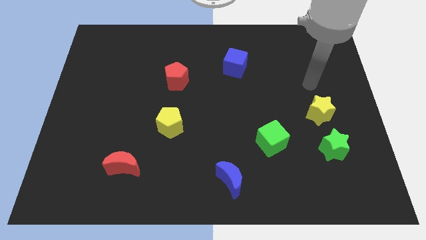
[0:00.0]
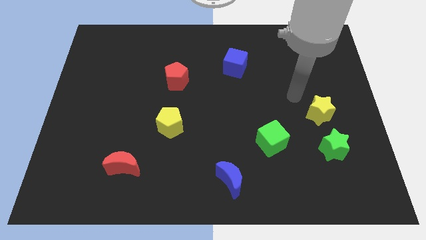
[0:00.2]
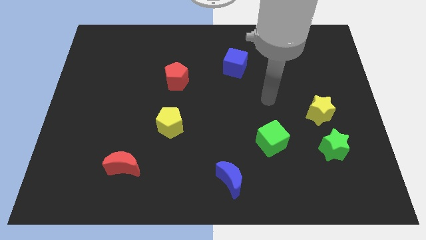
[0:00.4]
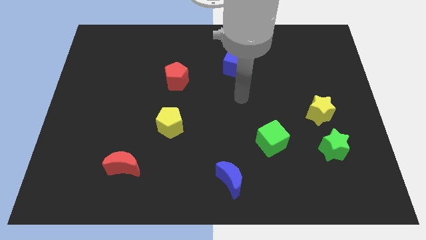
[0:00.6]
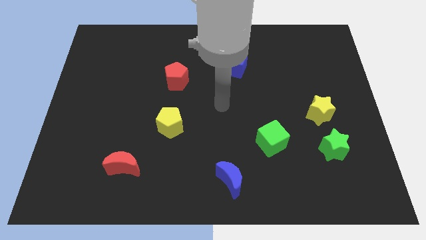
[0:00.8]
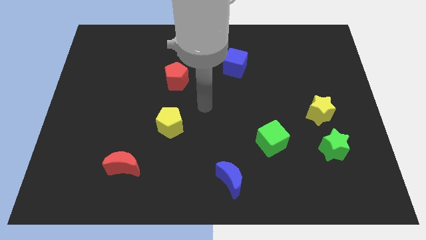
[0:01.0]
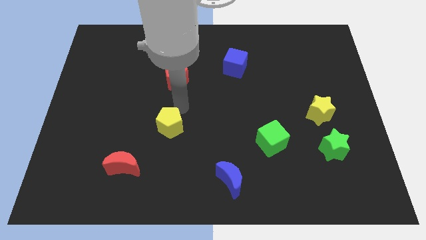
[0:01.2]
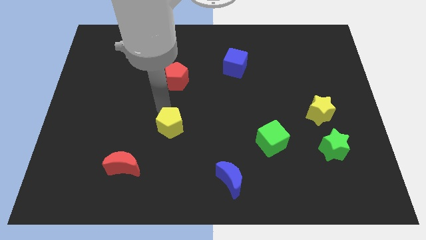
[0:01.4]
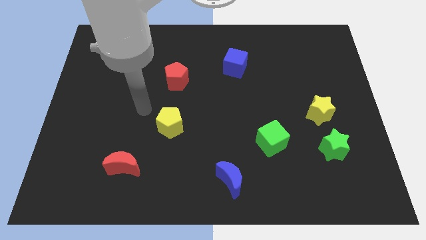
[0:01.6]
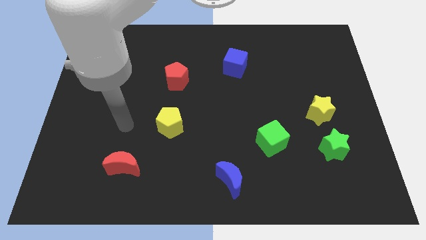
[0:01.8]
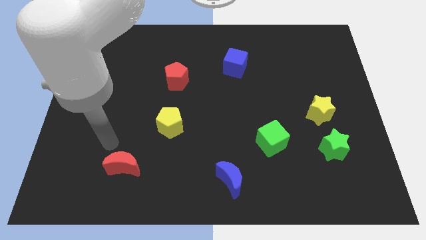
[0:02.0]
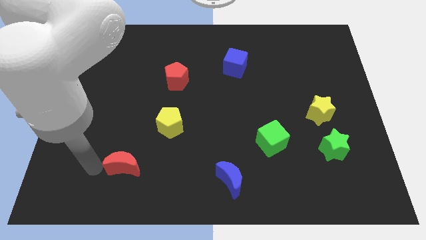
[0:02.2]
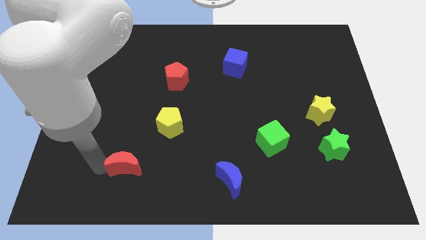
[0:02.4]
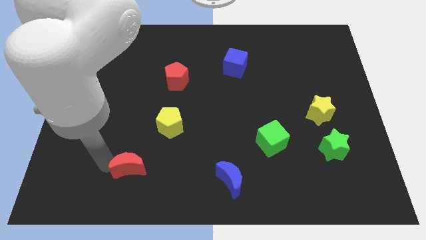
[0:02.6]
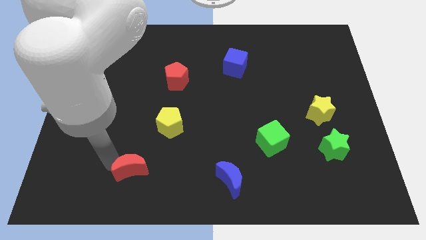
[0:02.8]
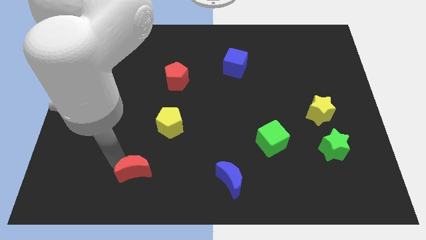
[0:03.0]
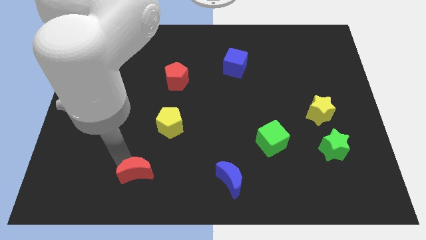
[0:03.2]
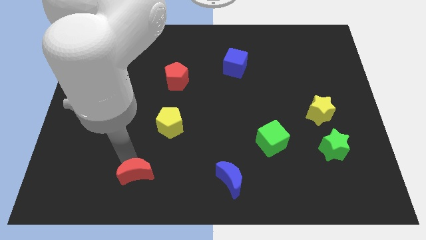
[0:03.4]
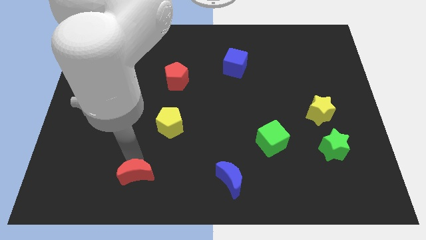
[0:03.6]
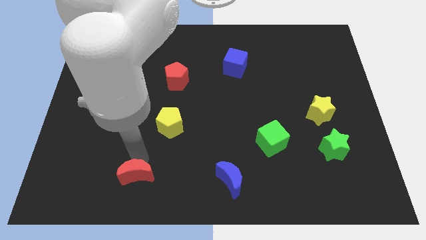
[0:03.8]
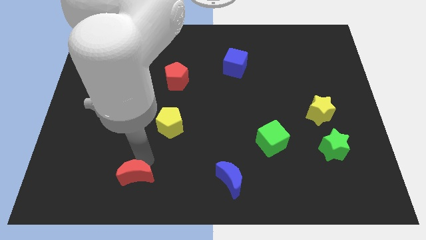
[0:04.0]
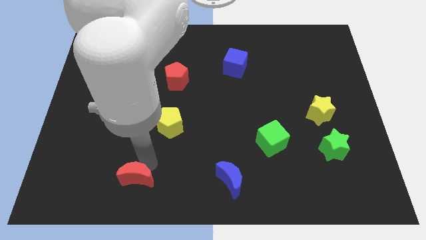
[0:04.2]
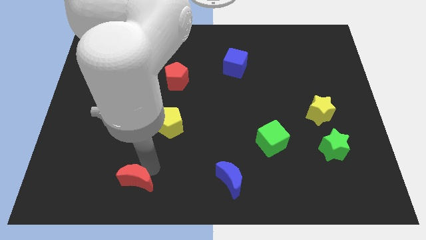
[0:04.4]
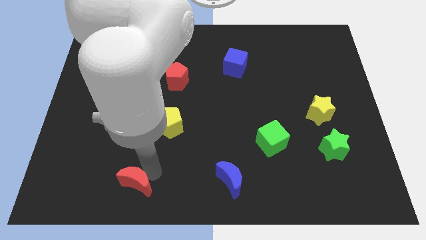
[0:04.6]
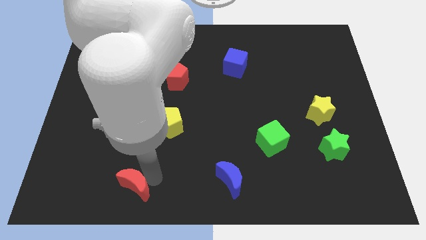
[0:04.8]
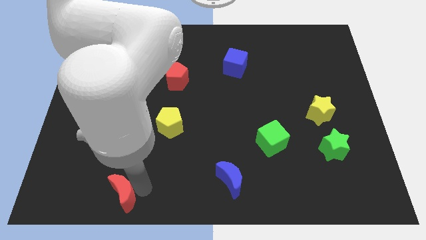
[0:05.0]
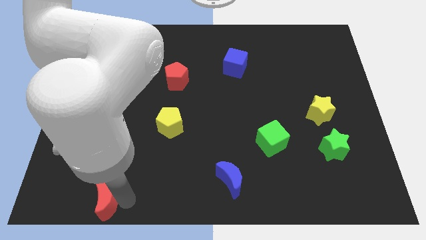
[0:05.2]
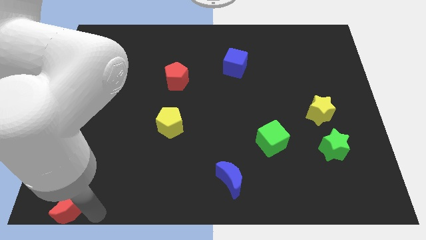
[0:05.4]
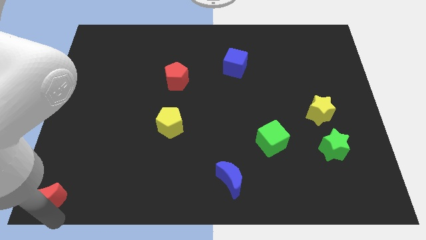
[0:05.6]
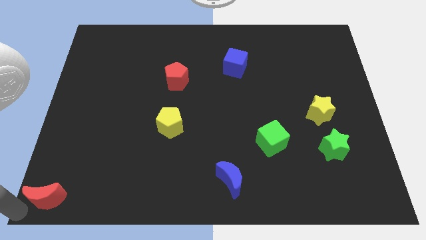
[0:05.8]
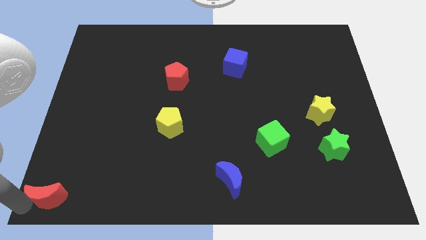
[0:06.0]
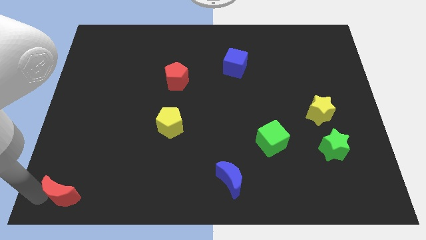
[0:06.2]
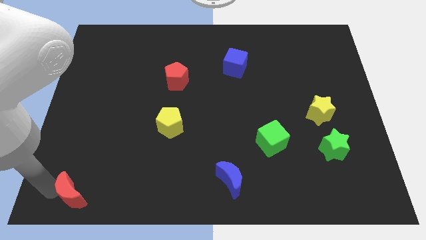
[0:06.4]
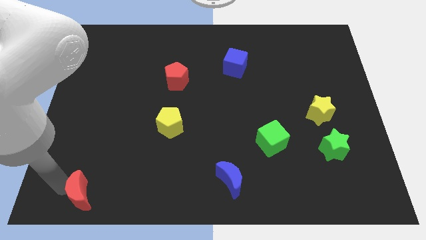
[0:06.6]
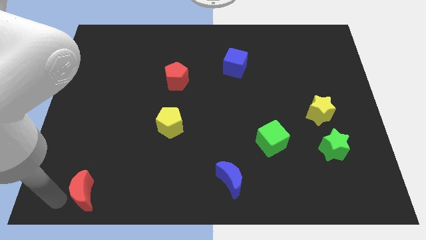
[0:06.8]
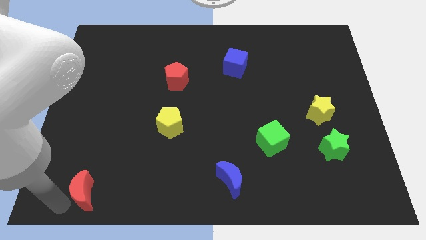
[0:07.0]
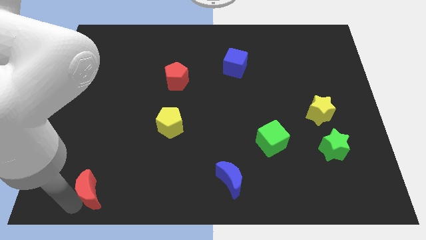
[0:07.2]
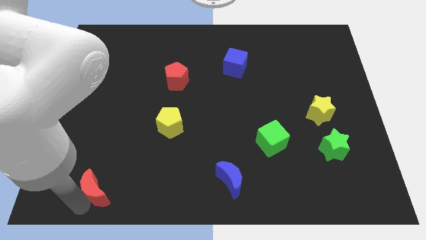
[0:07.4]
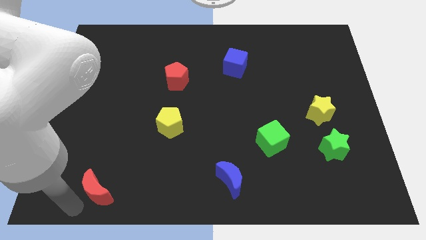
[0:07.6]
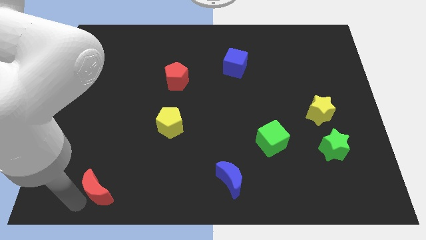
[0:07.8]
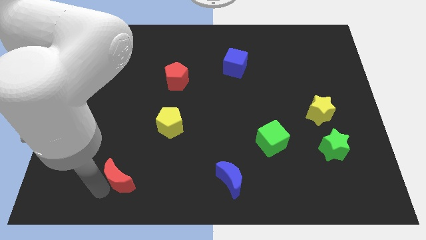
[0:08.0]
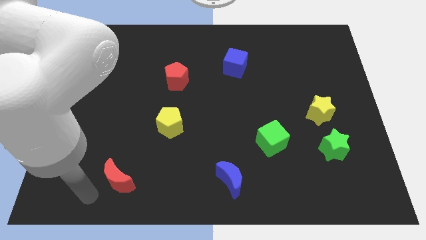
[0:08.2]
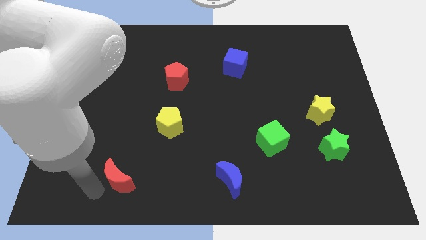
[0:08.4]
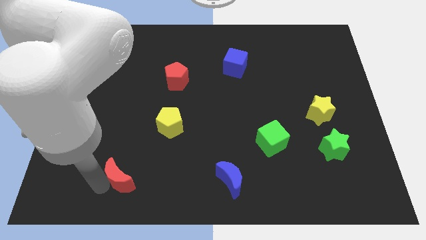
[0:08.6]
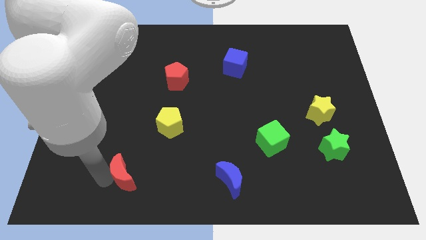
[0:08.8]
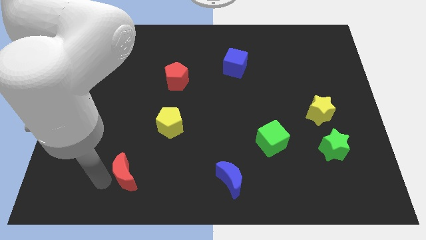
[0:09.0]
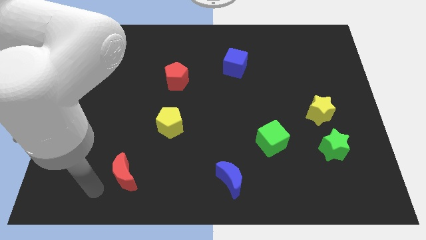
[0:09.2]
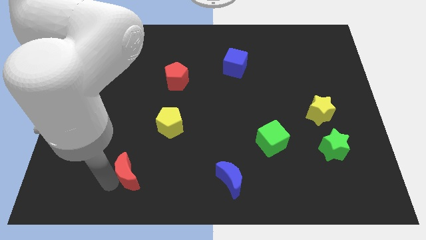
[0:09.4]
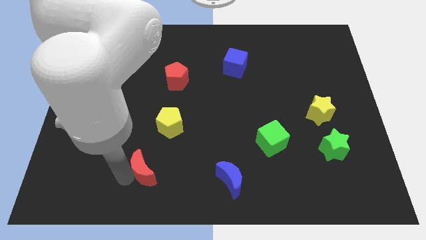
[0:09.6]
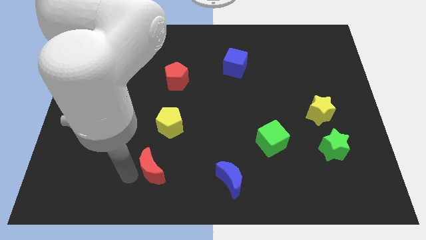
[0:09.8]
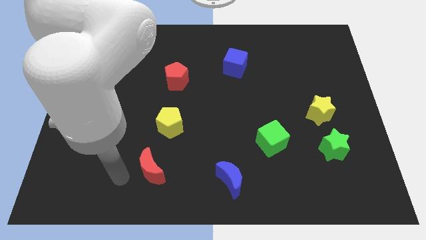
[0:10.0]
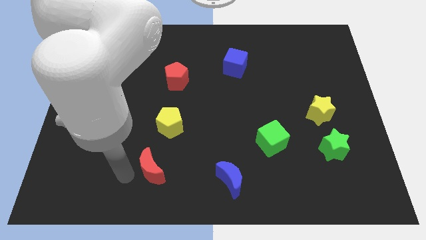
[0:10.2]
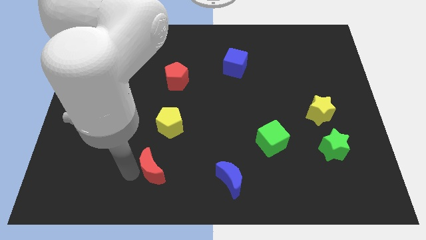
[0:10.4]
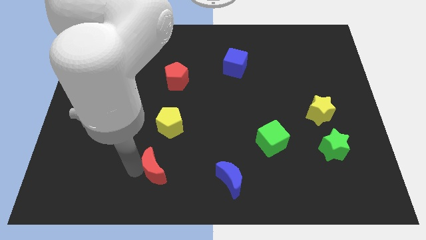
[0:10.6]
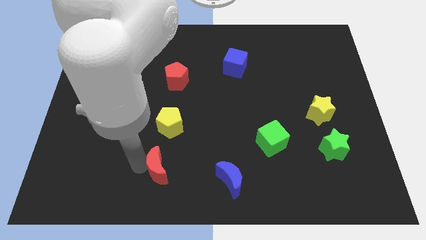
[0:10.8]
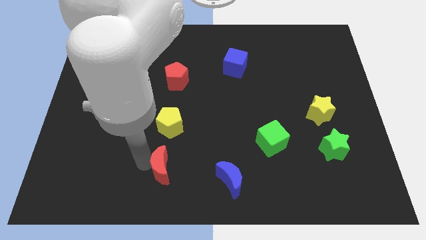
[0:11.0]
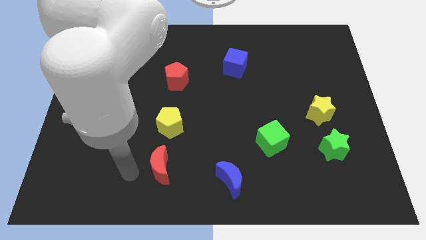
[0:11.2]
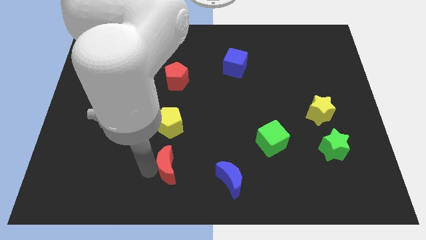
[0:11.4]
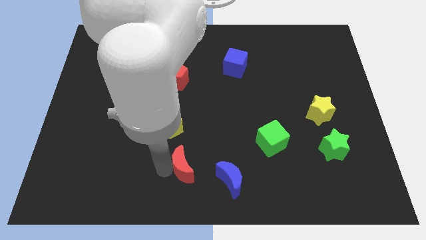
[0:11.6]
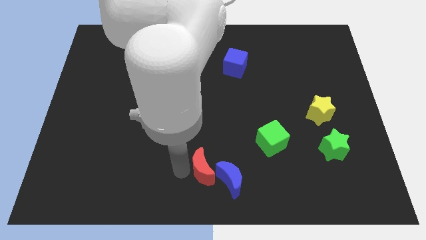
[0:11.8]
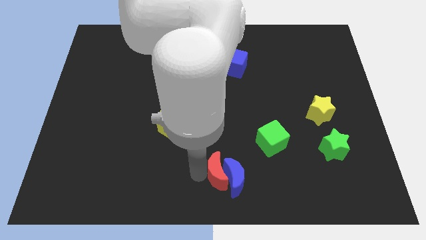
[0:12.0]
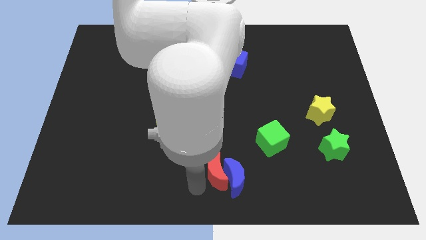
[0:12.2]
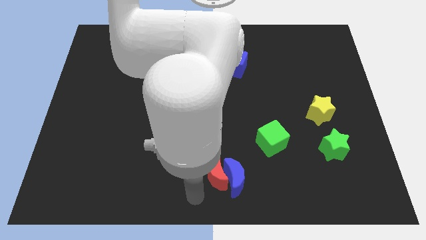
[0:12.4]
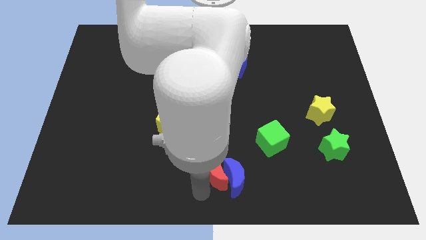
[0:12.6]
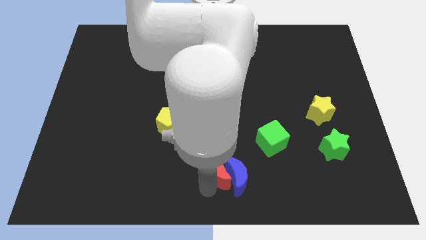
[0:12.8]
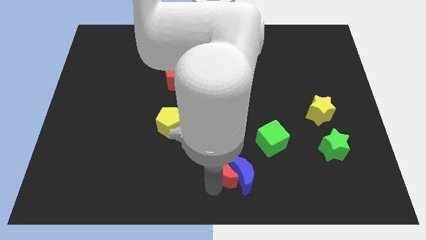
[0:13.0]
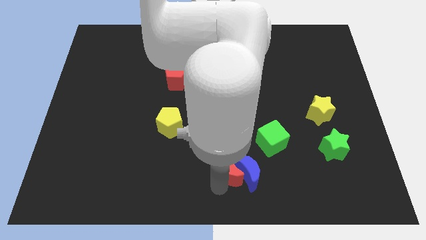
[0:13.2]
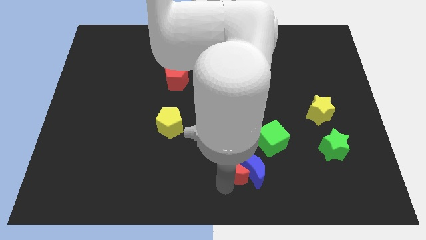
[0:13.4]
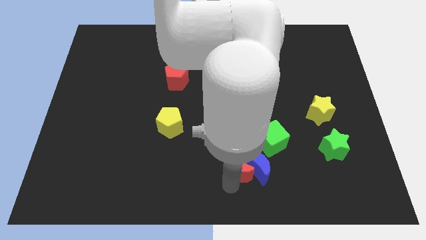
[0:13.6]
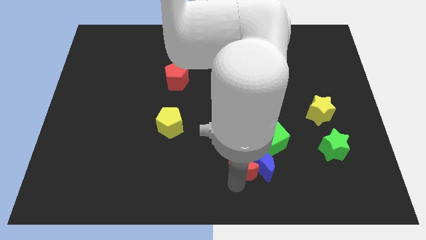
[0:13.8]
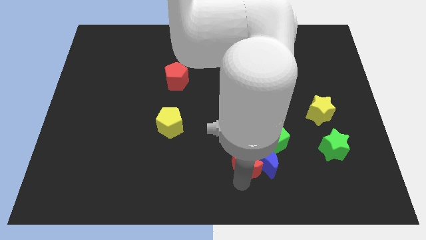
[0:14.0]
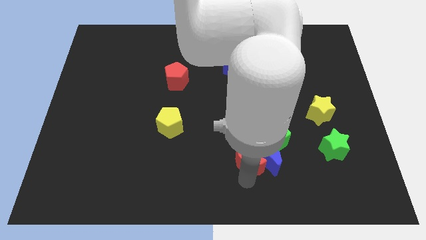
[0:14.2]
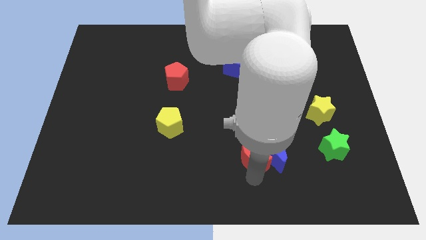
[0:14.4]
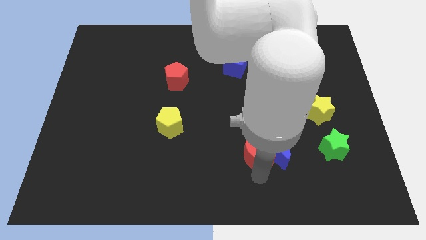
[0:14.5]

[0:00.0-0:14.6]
move the red moon to the bottom side of the green cube
